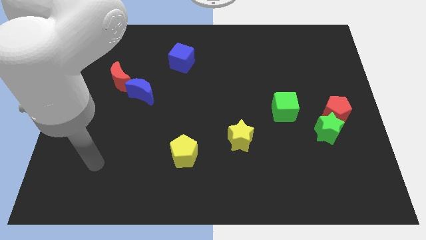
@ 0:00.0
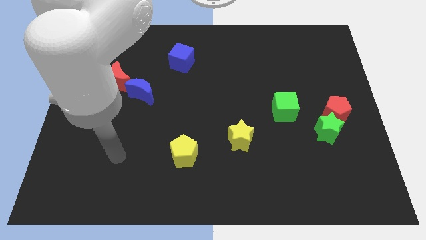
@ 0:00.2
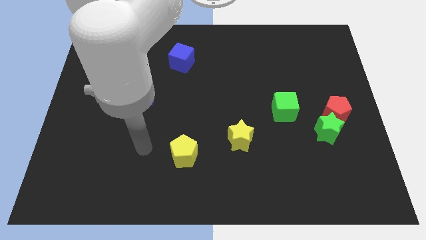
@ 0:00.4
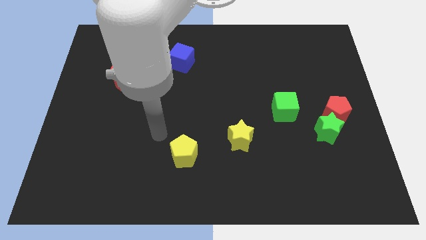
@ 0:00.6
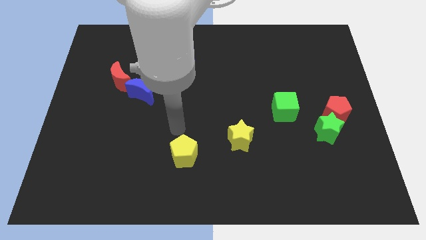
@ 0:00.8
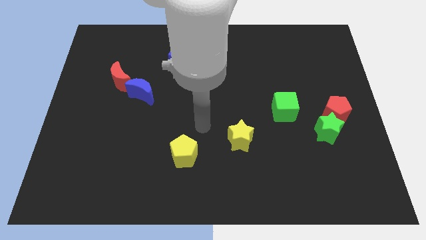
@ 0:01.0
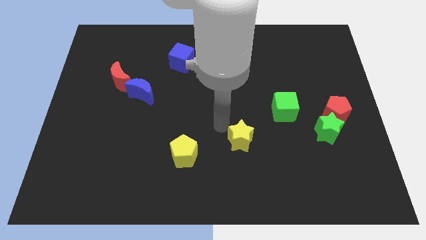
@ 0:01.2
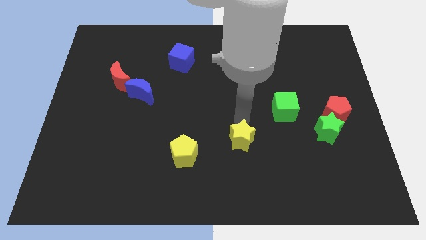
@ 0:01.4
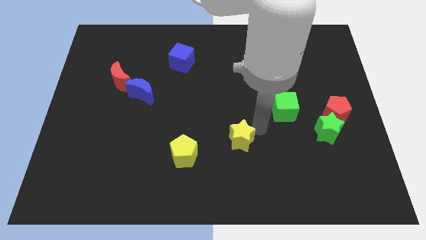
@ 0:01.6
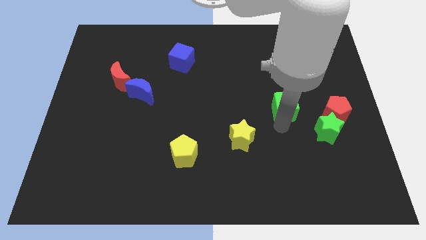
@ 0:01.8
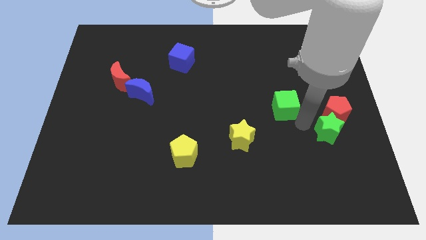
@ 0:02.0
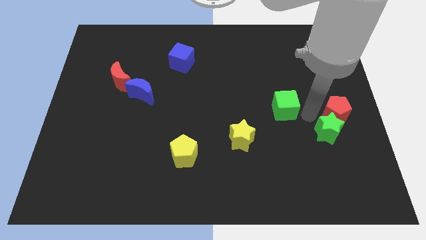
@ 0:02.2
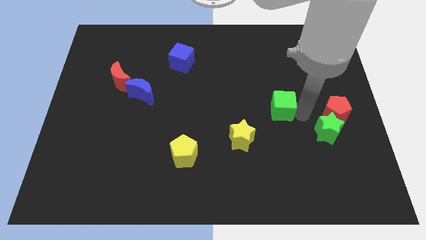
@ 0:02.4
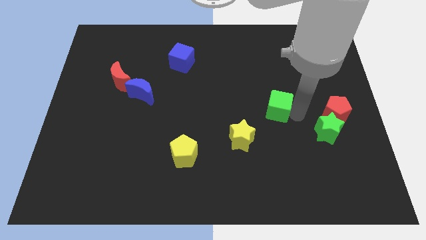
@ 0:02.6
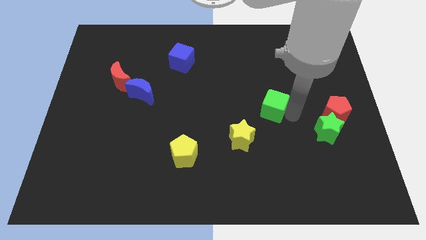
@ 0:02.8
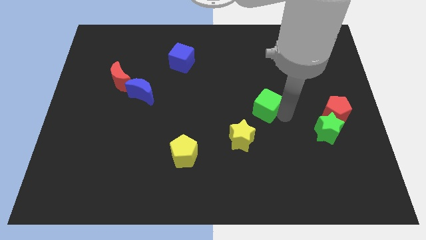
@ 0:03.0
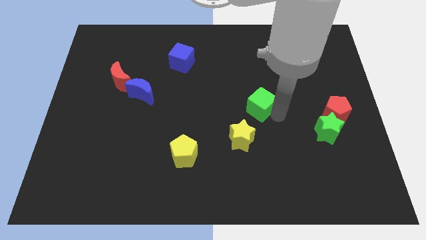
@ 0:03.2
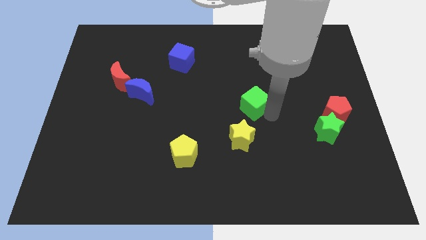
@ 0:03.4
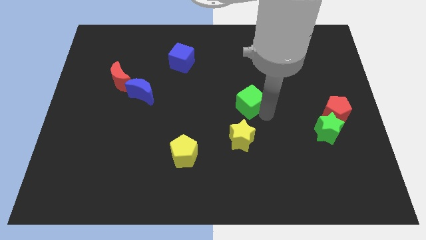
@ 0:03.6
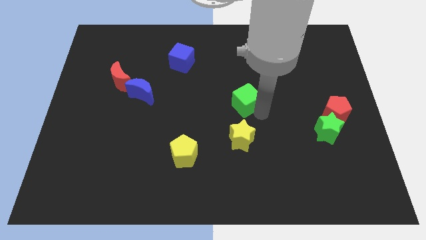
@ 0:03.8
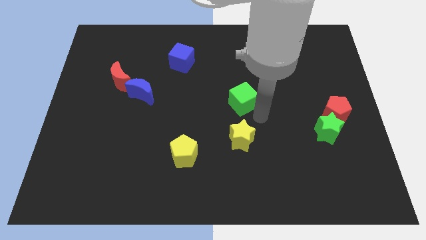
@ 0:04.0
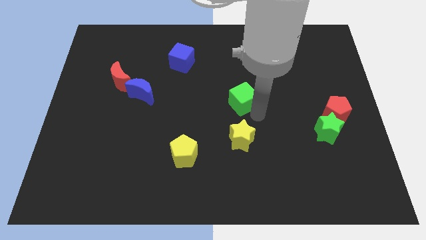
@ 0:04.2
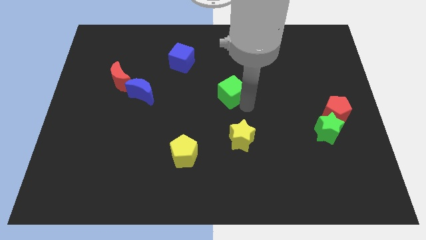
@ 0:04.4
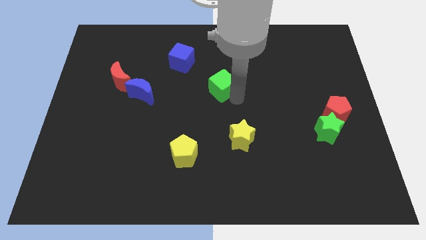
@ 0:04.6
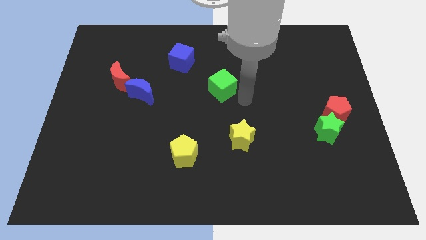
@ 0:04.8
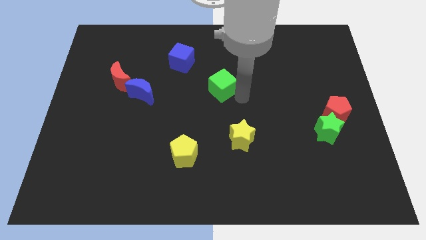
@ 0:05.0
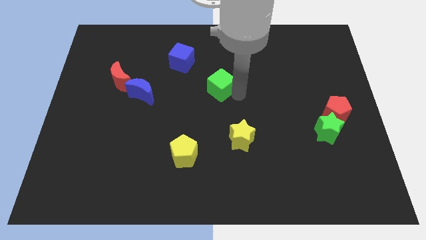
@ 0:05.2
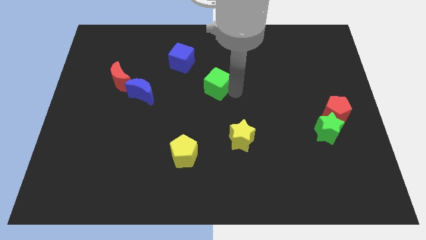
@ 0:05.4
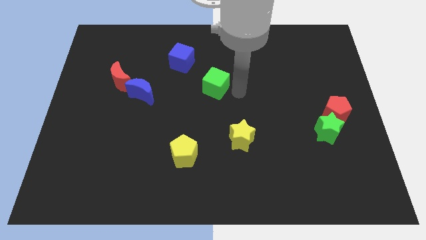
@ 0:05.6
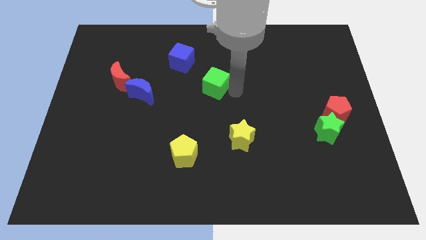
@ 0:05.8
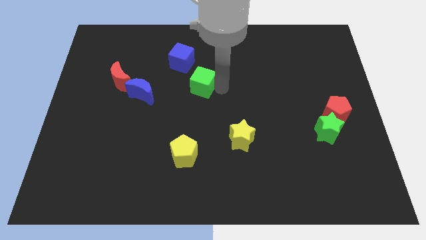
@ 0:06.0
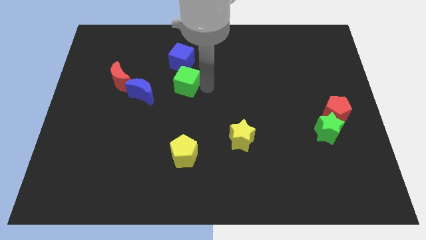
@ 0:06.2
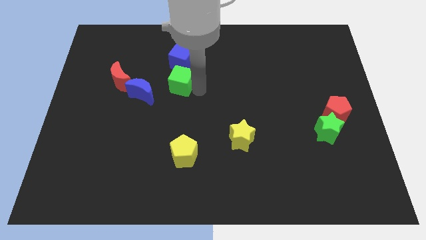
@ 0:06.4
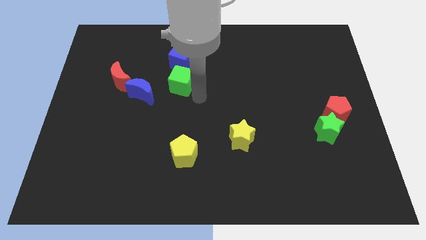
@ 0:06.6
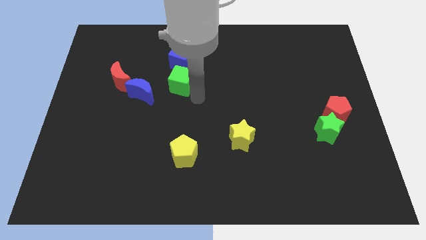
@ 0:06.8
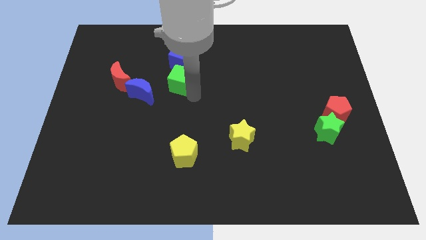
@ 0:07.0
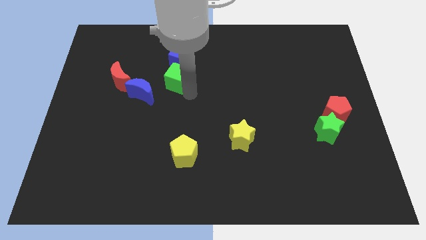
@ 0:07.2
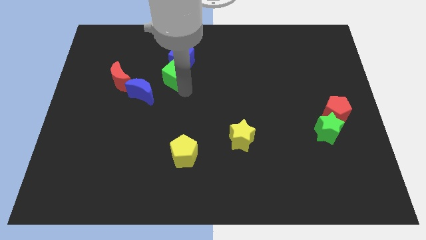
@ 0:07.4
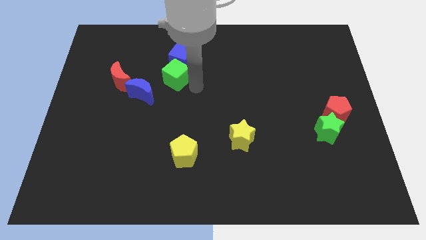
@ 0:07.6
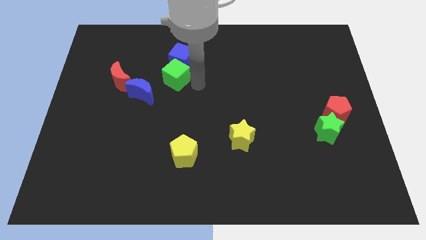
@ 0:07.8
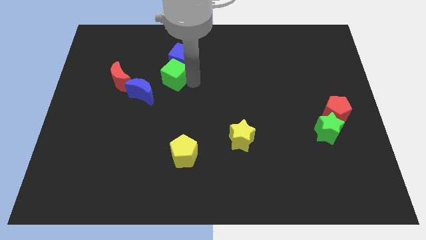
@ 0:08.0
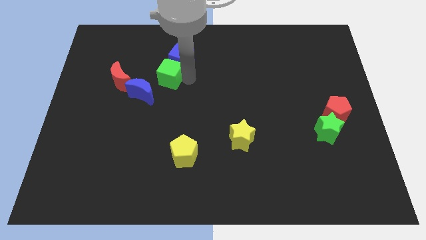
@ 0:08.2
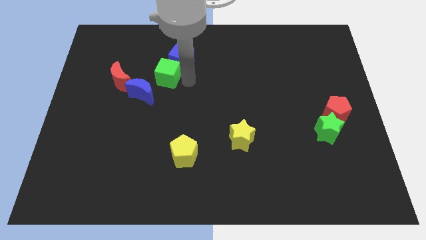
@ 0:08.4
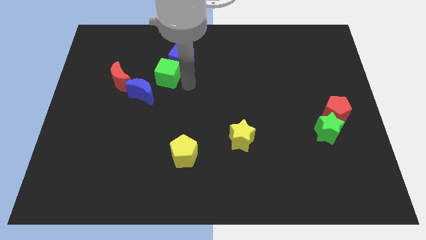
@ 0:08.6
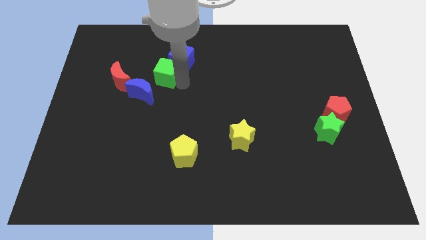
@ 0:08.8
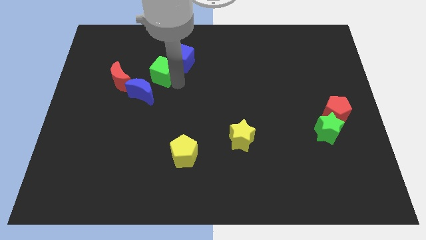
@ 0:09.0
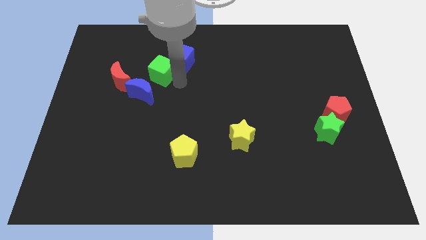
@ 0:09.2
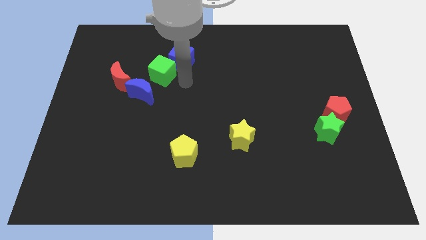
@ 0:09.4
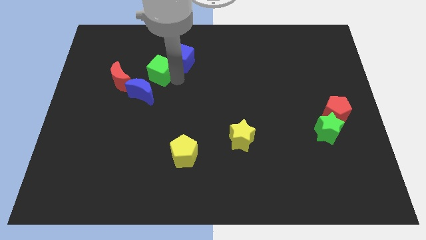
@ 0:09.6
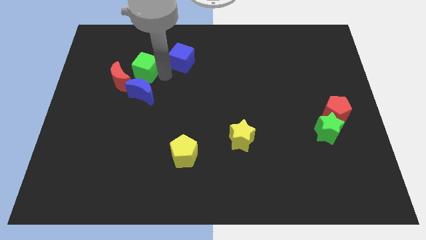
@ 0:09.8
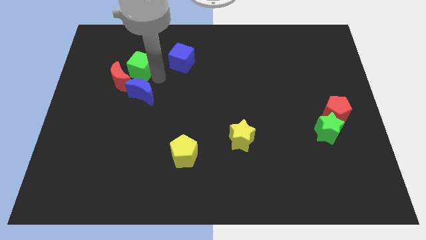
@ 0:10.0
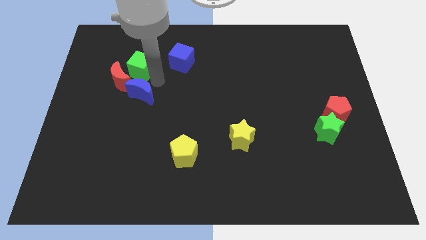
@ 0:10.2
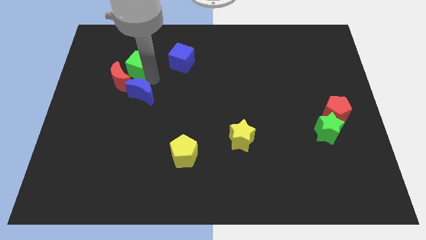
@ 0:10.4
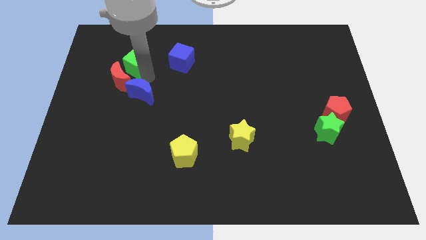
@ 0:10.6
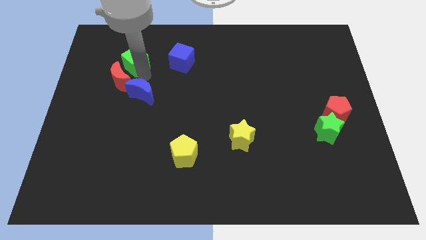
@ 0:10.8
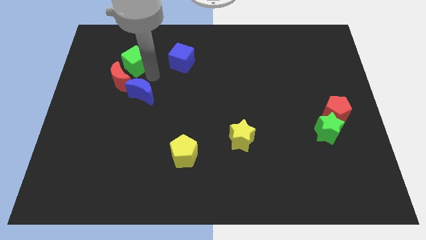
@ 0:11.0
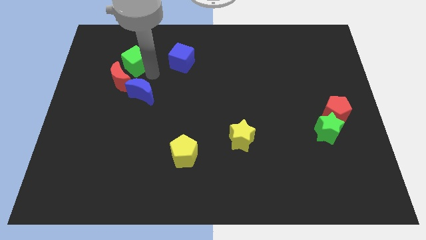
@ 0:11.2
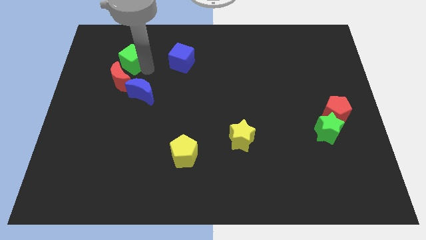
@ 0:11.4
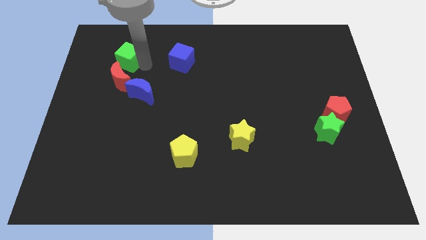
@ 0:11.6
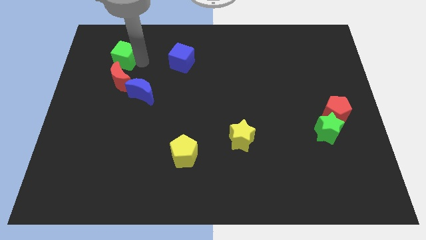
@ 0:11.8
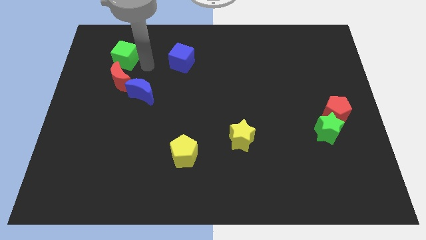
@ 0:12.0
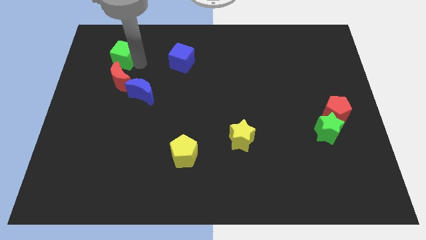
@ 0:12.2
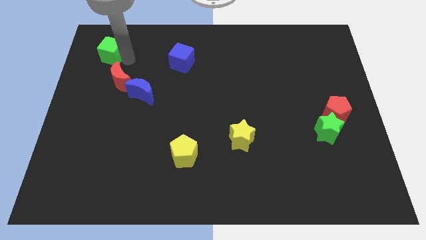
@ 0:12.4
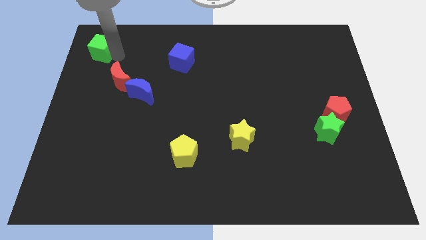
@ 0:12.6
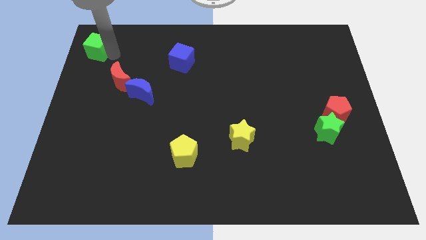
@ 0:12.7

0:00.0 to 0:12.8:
slide the green cube to the top left of the board

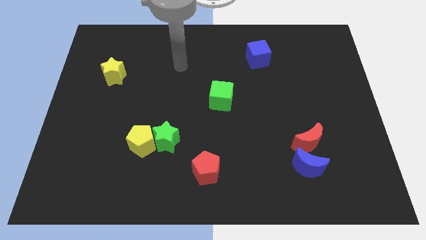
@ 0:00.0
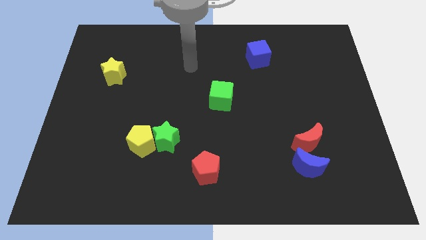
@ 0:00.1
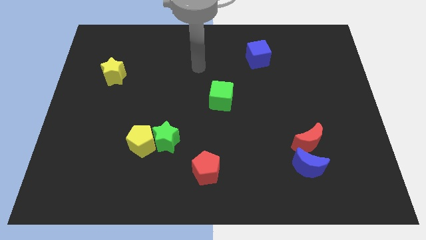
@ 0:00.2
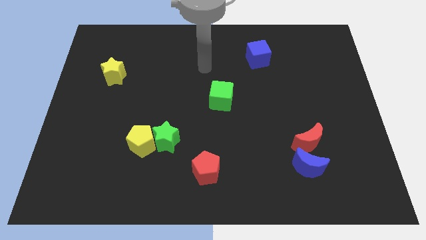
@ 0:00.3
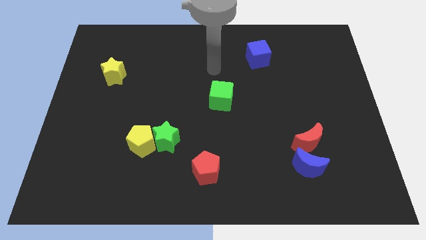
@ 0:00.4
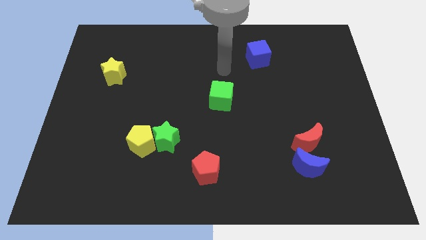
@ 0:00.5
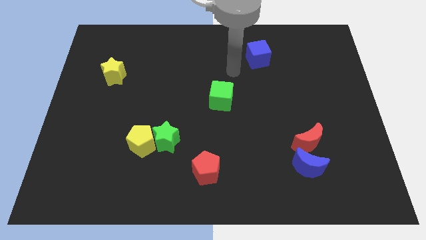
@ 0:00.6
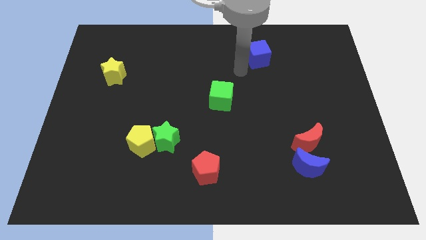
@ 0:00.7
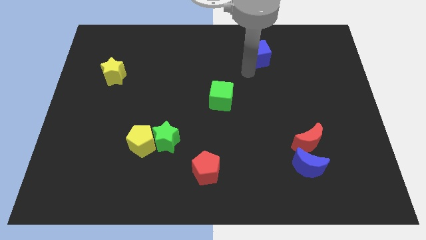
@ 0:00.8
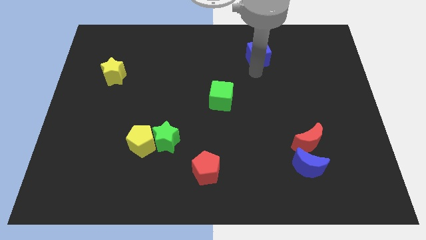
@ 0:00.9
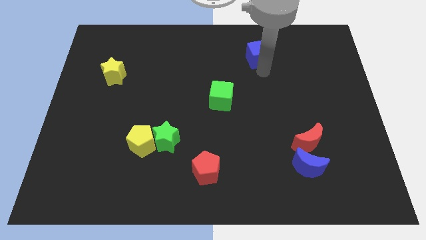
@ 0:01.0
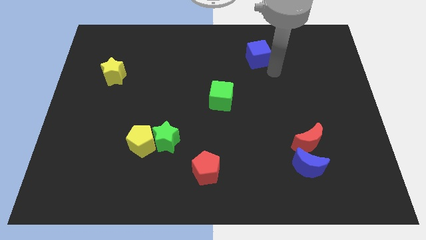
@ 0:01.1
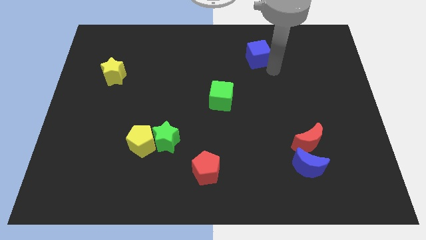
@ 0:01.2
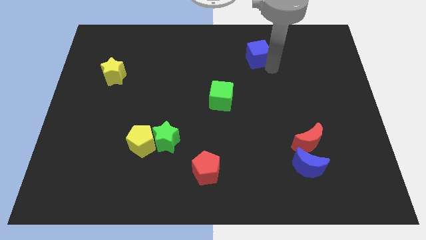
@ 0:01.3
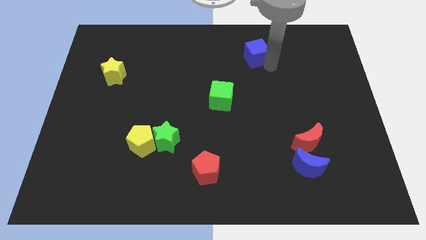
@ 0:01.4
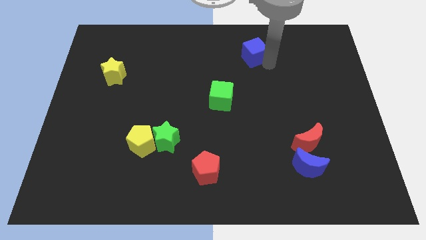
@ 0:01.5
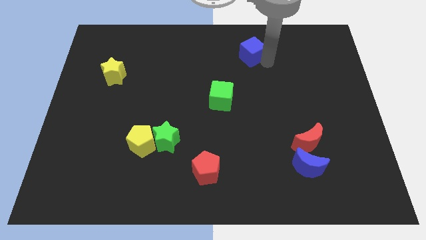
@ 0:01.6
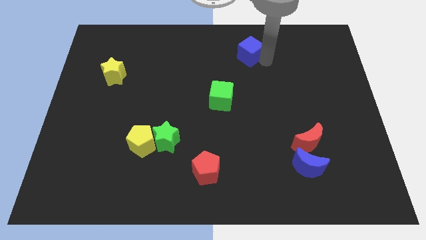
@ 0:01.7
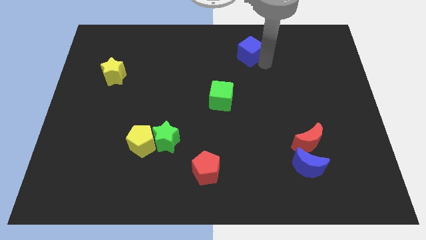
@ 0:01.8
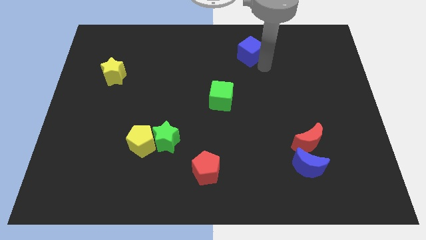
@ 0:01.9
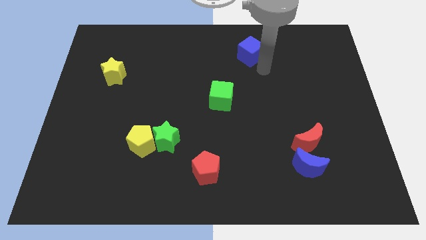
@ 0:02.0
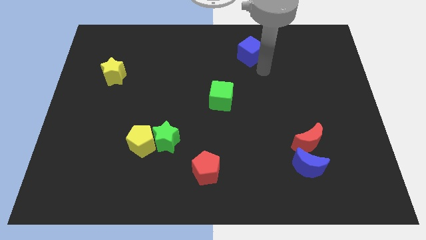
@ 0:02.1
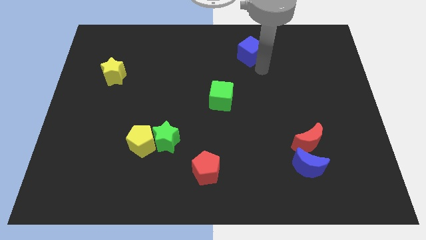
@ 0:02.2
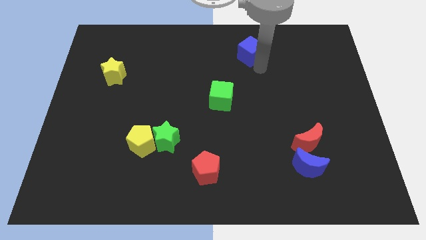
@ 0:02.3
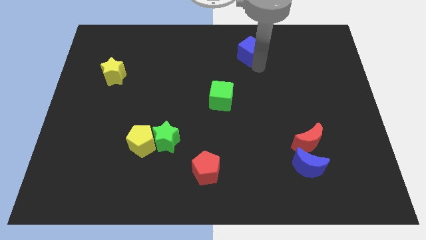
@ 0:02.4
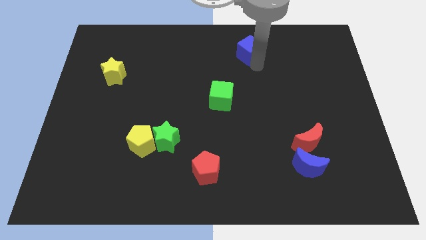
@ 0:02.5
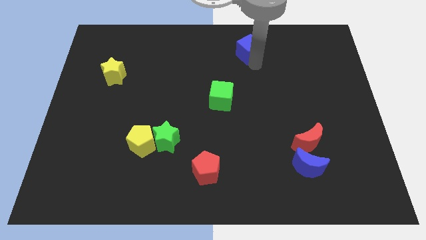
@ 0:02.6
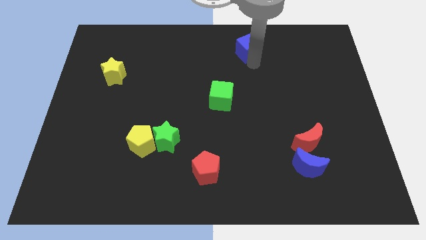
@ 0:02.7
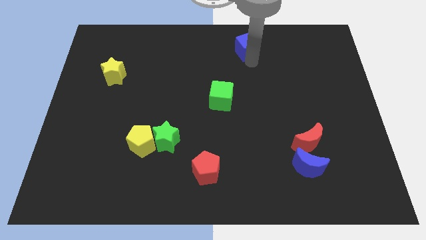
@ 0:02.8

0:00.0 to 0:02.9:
move the blue cube to the top side
